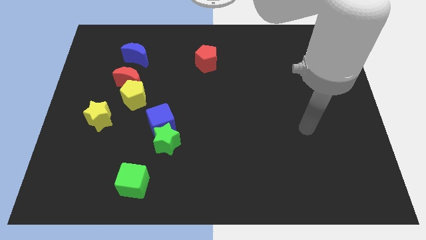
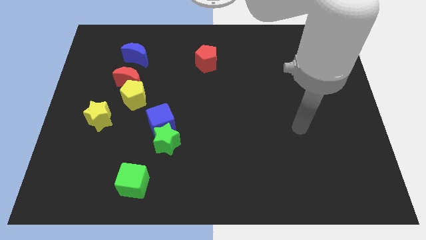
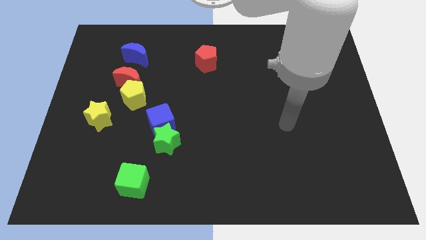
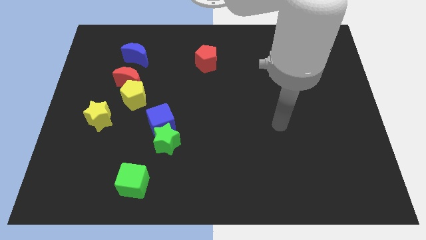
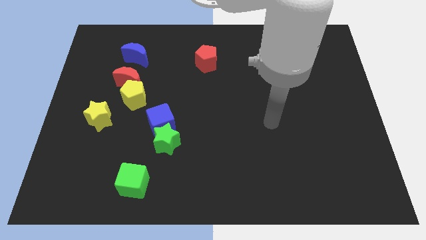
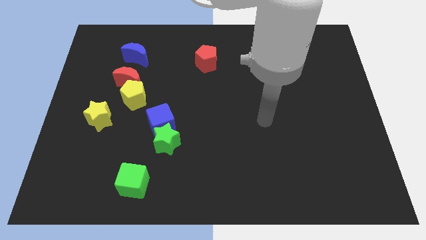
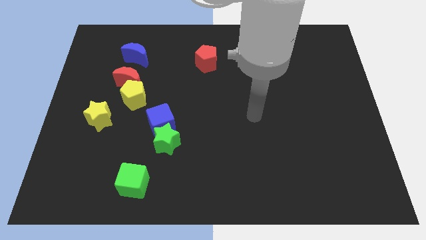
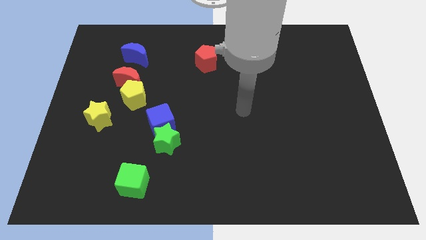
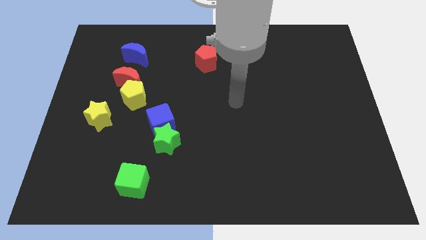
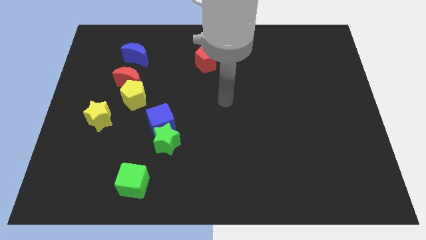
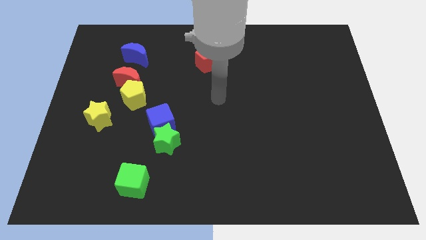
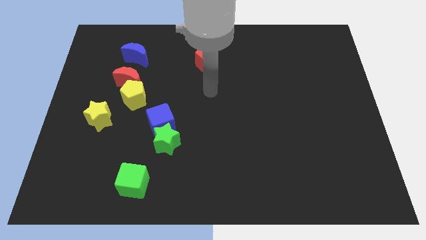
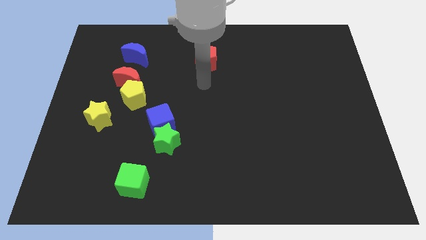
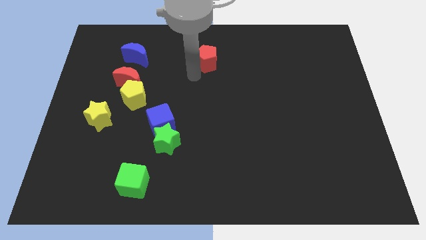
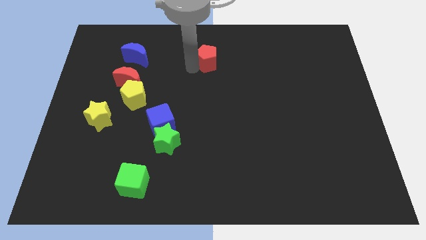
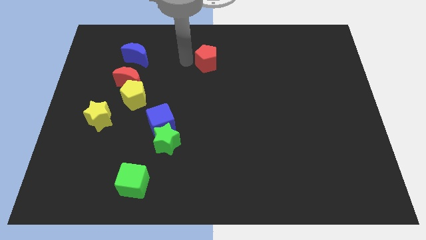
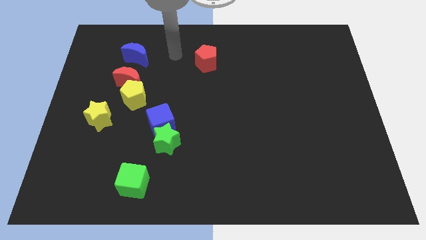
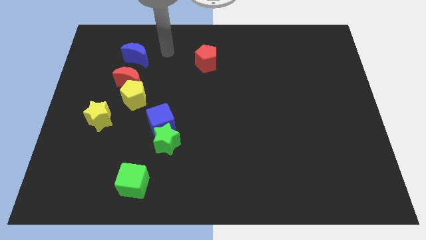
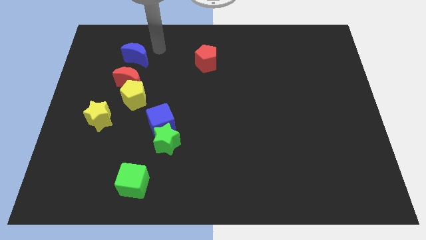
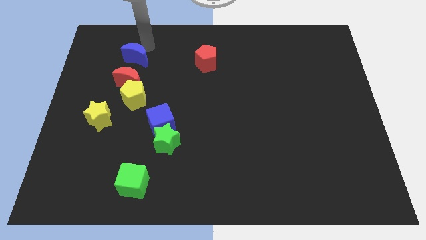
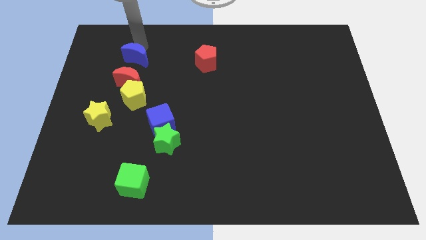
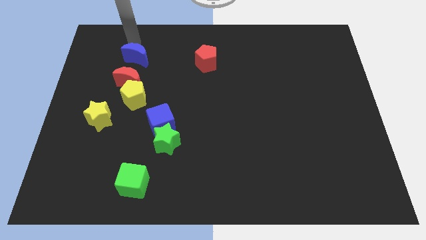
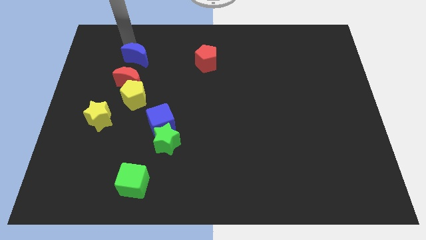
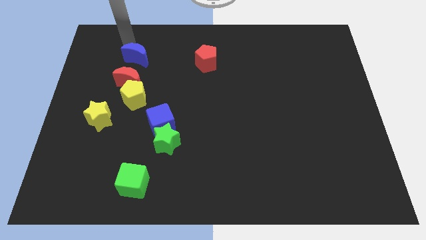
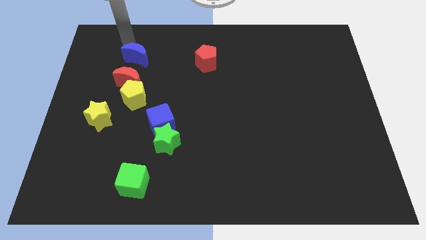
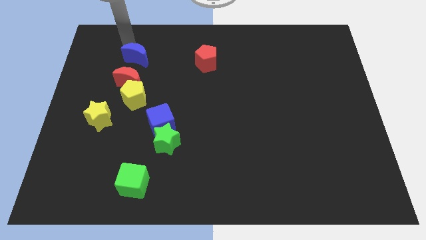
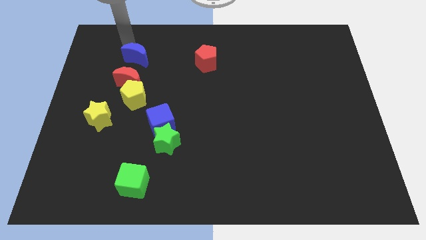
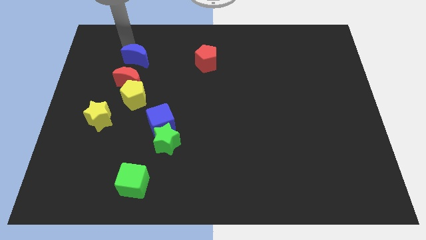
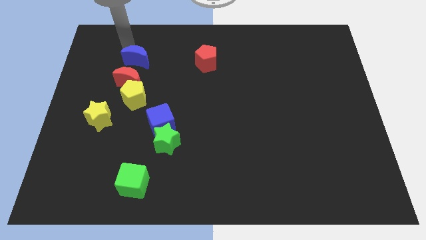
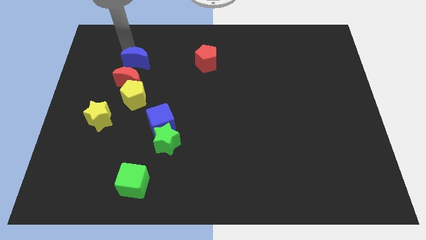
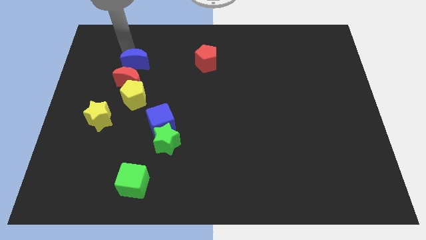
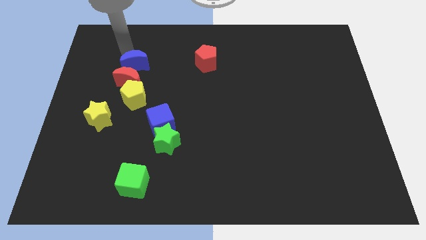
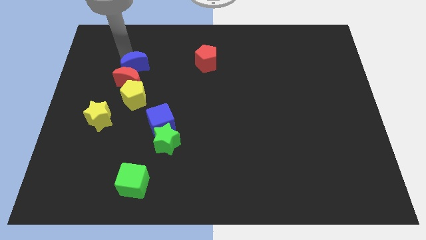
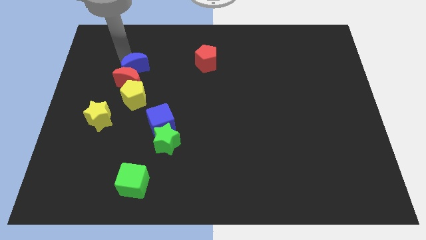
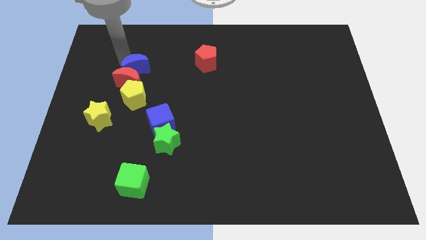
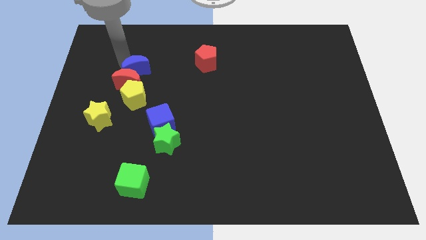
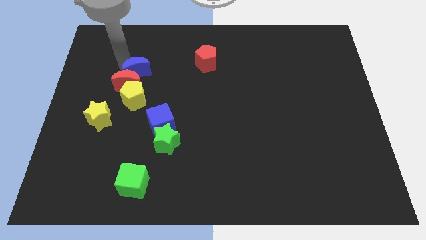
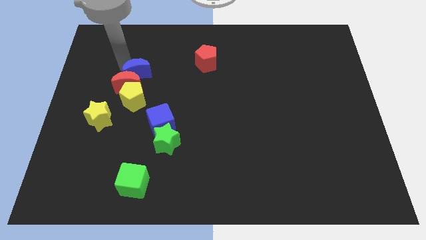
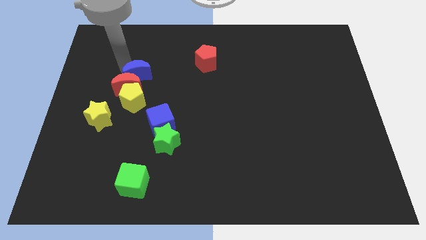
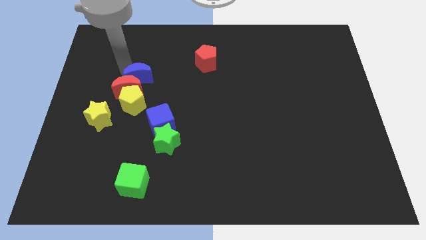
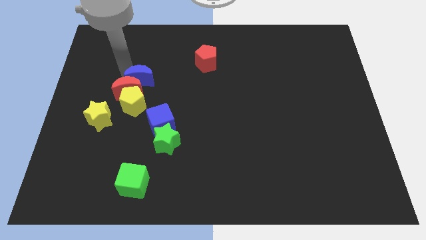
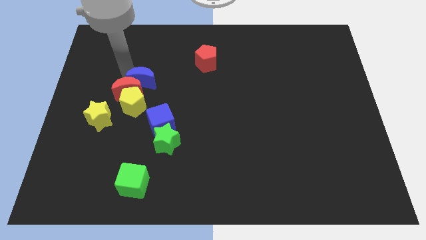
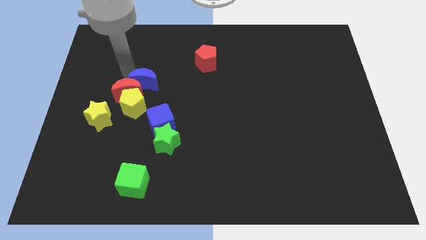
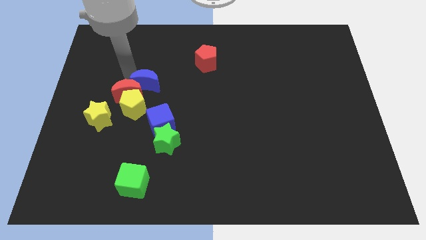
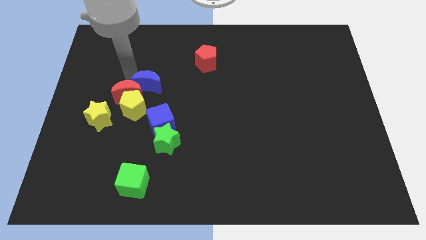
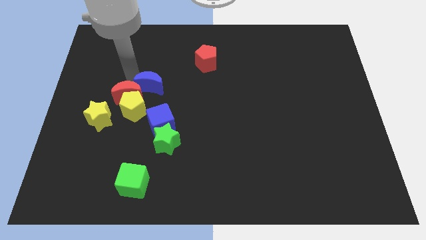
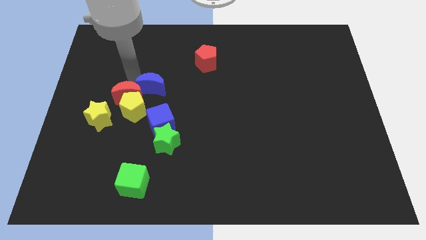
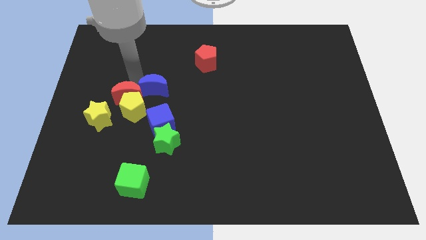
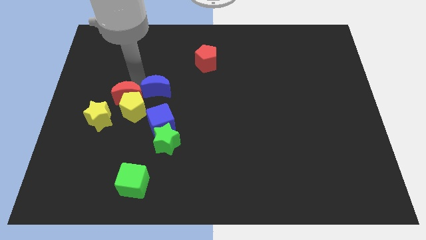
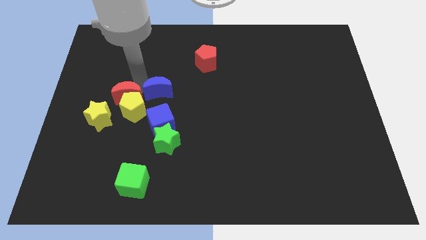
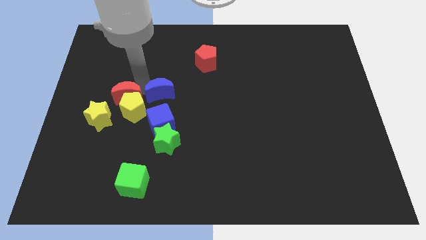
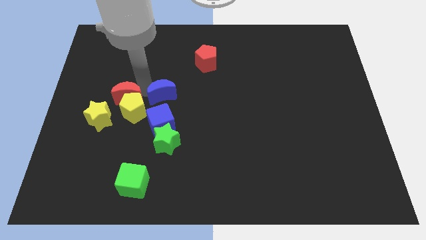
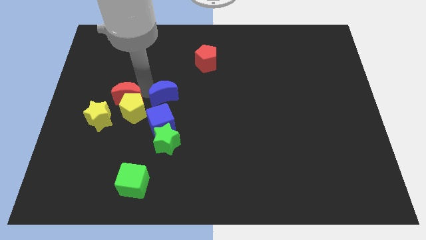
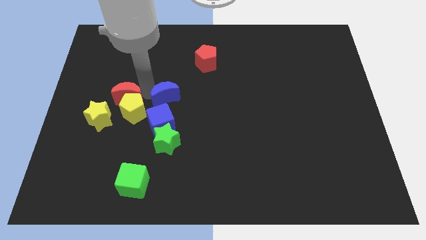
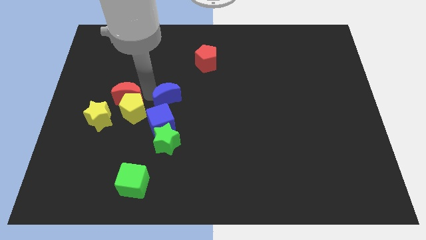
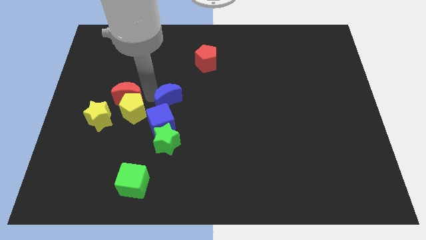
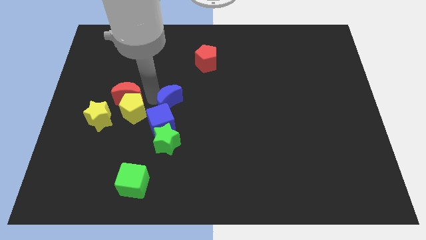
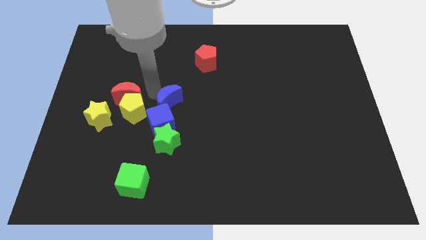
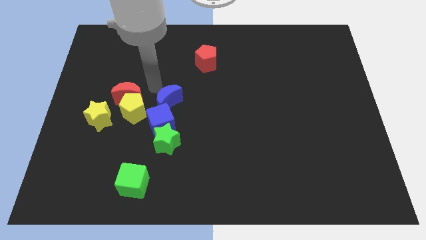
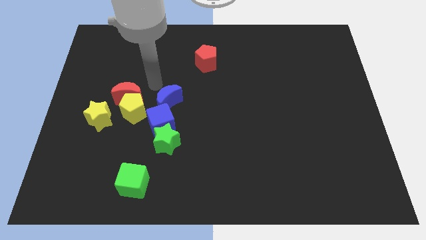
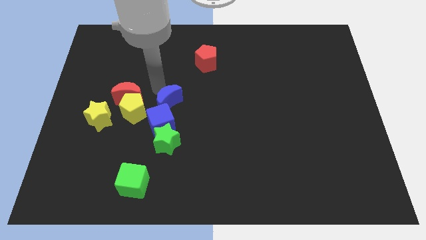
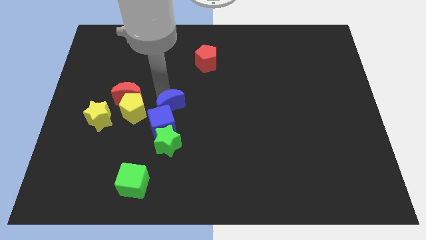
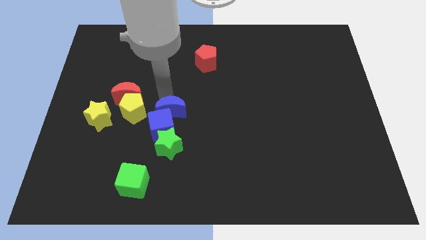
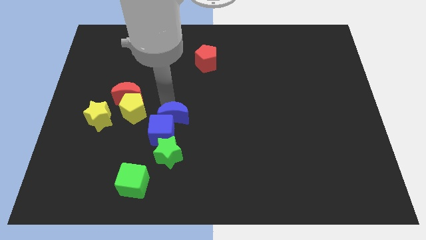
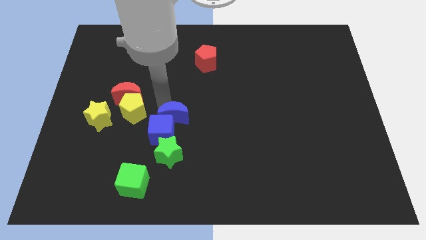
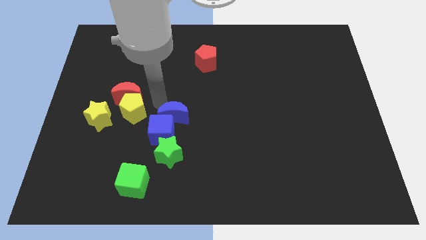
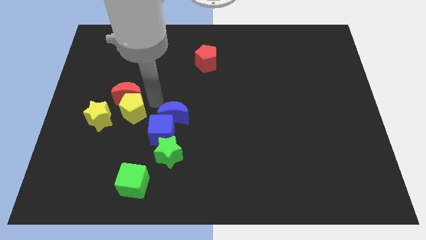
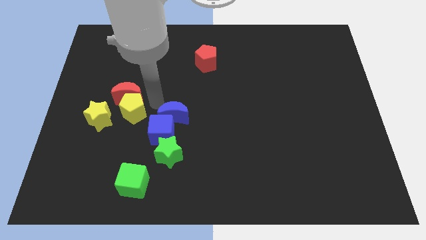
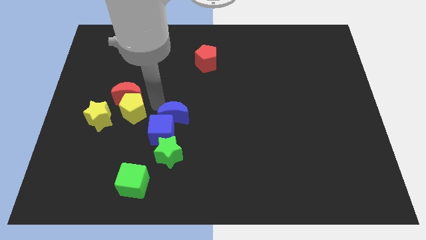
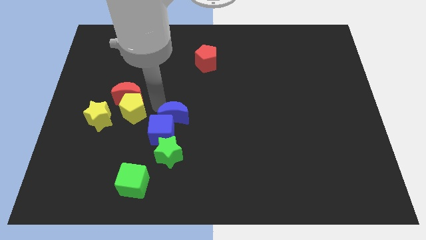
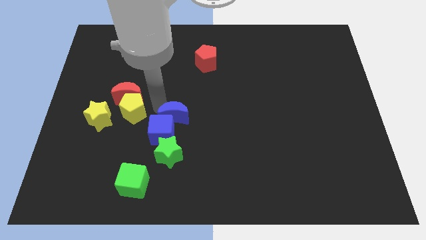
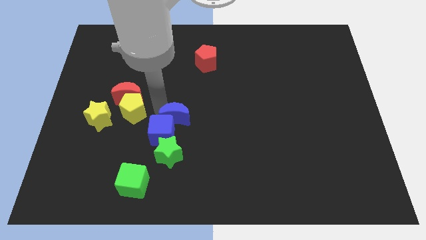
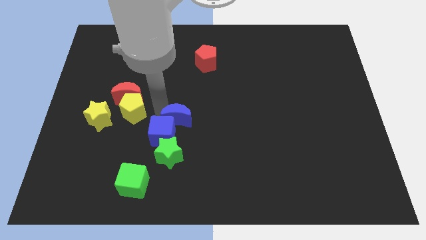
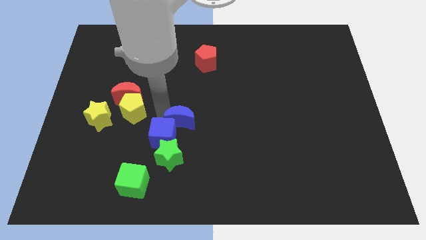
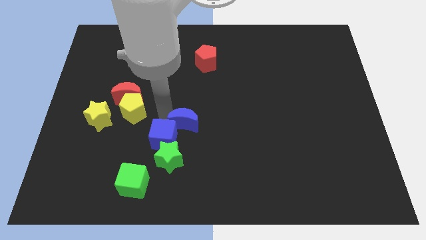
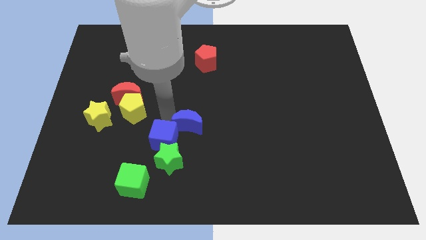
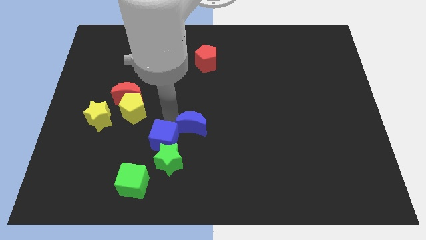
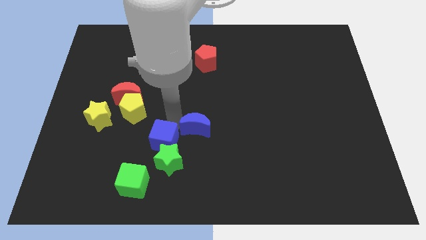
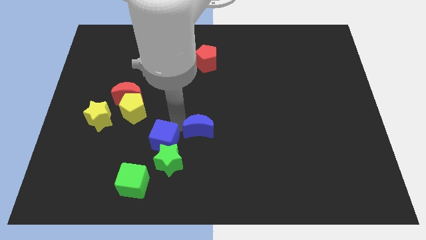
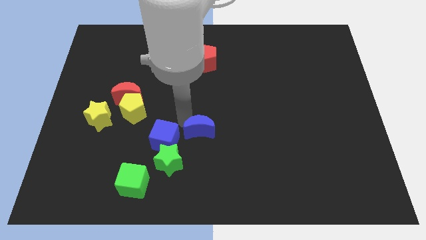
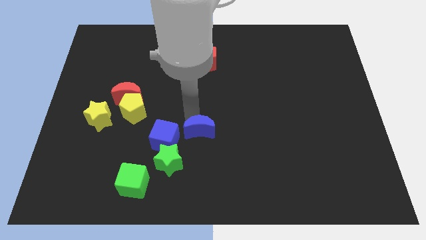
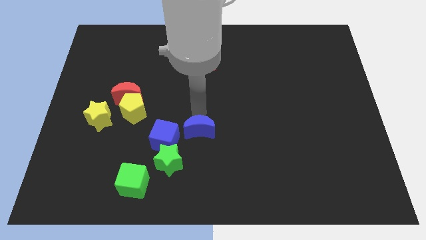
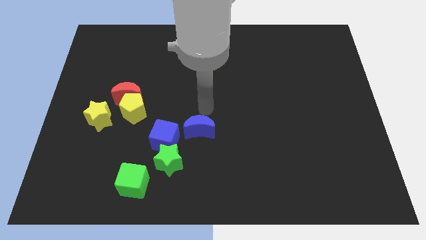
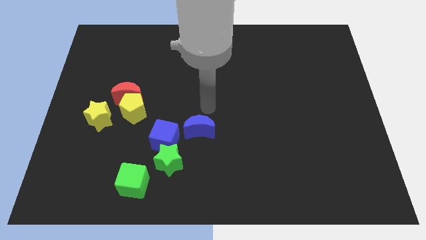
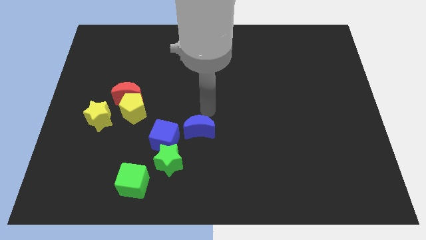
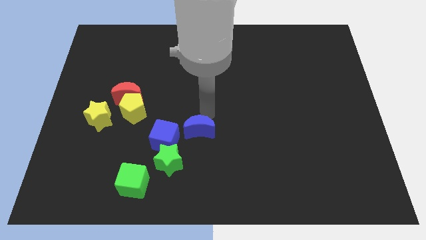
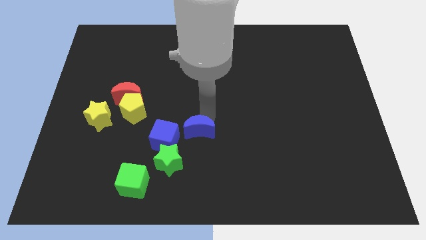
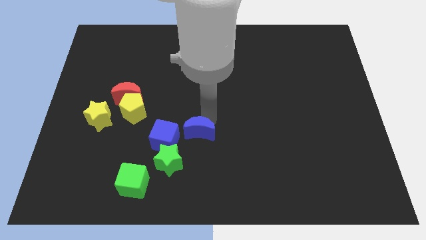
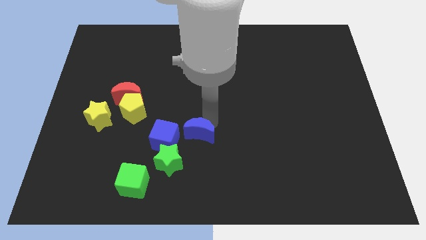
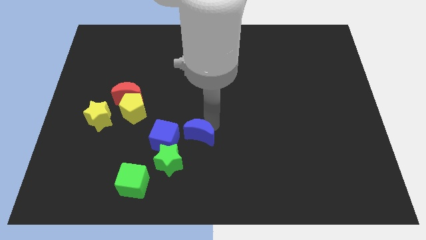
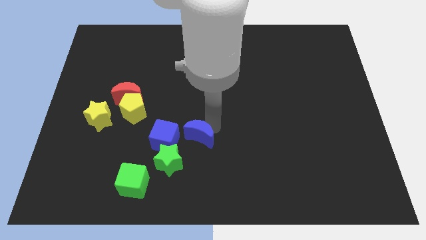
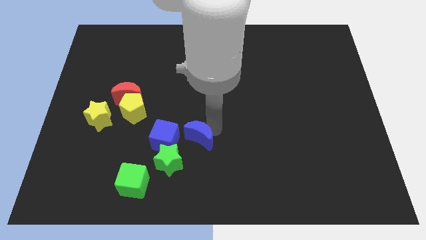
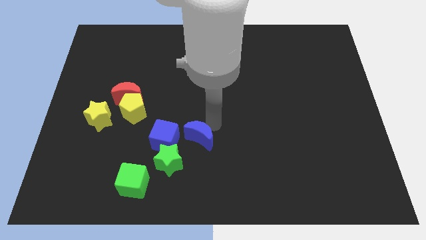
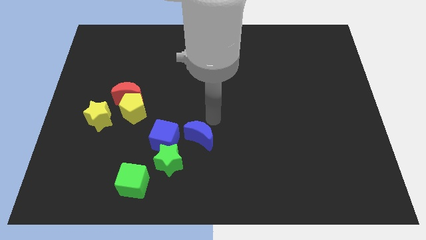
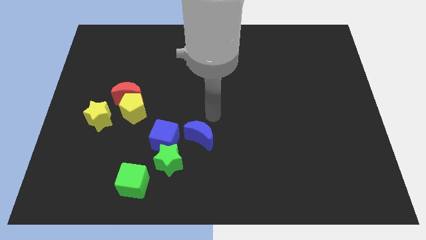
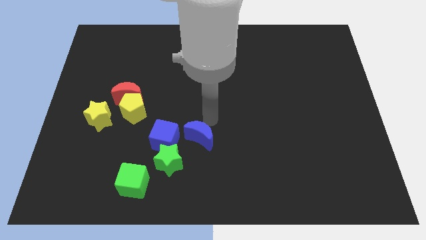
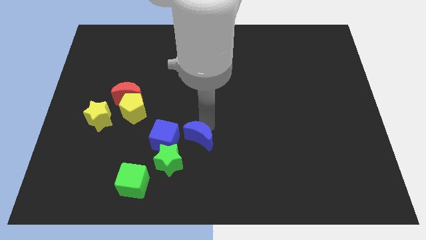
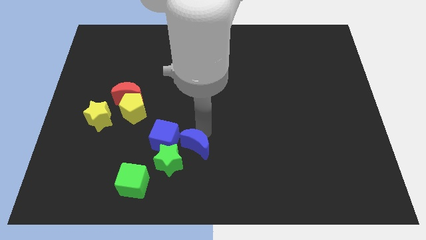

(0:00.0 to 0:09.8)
move the blue moon to the bottom right of the blue cube
